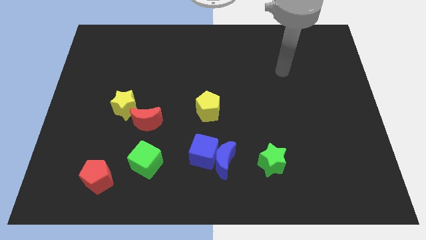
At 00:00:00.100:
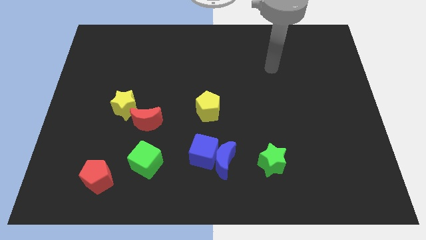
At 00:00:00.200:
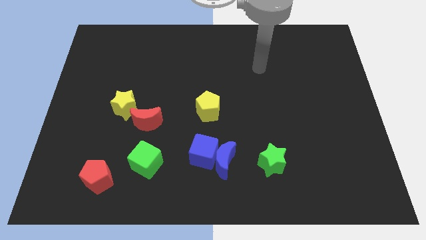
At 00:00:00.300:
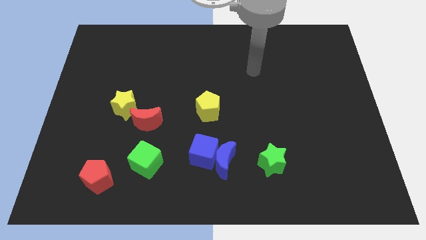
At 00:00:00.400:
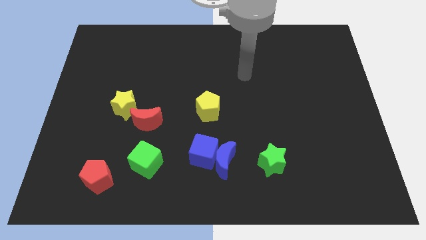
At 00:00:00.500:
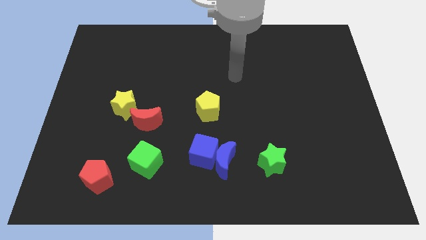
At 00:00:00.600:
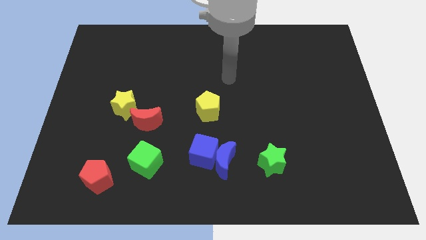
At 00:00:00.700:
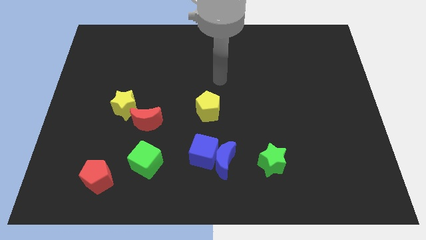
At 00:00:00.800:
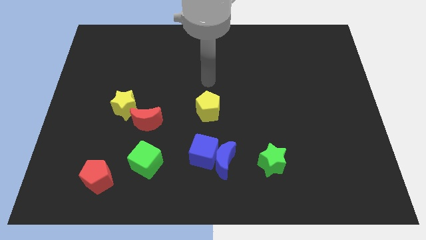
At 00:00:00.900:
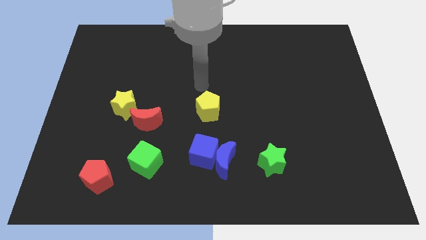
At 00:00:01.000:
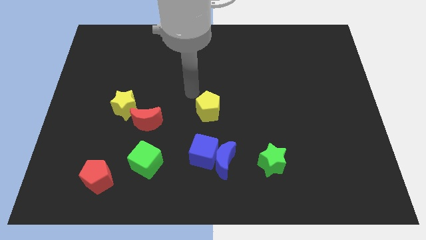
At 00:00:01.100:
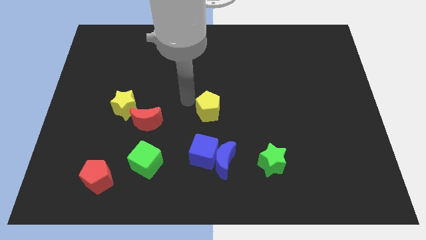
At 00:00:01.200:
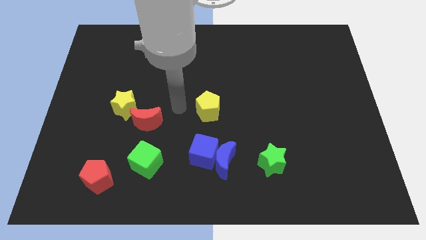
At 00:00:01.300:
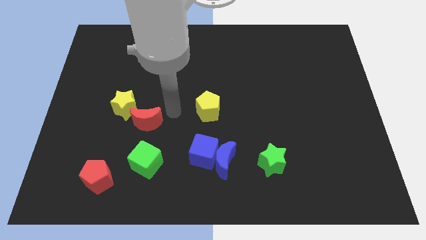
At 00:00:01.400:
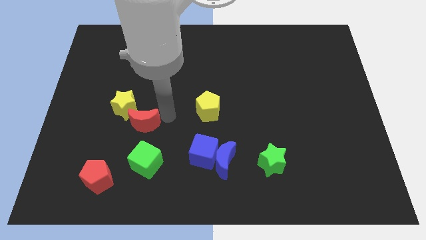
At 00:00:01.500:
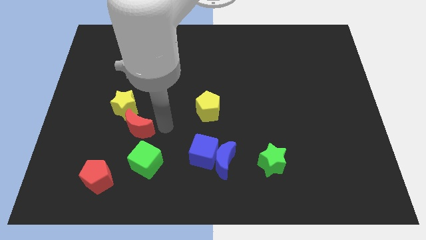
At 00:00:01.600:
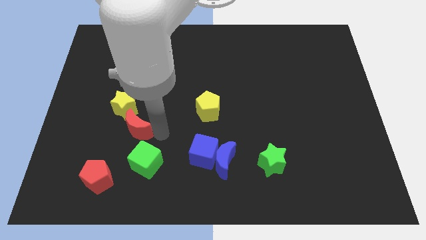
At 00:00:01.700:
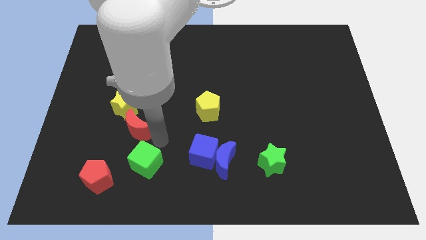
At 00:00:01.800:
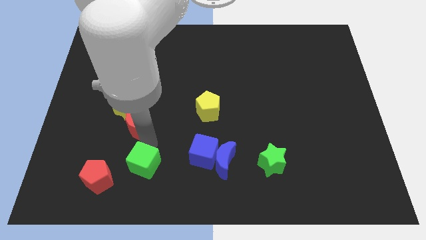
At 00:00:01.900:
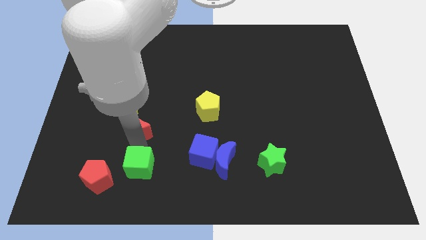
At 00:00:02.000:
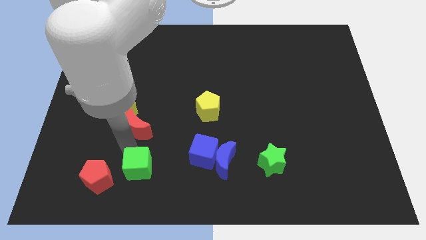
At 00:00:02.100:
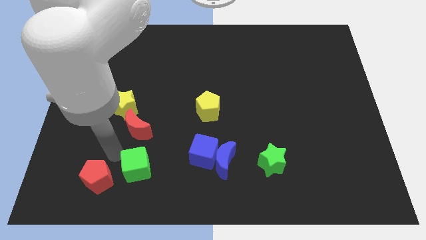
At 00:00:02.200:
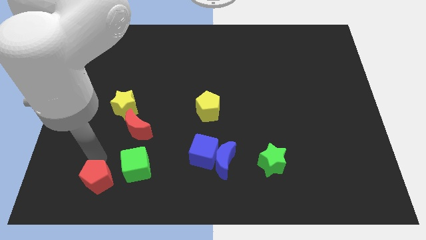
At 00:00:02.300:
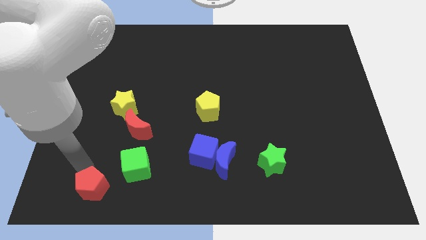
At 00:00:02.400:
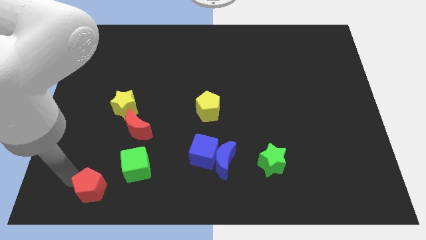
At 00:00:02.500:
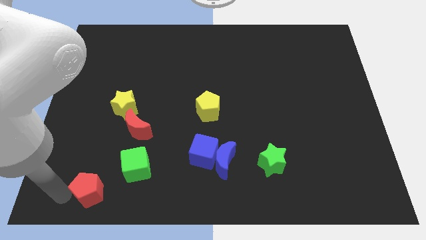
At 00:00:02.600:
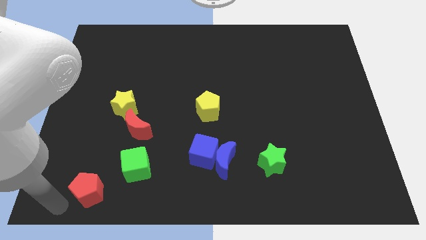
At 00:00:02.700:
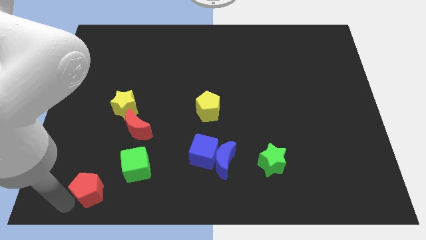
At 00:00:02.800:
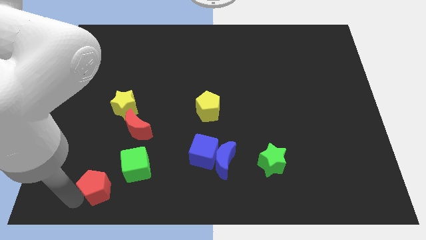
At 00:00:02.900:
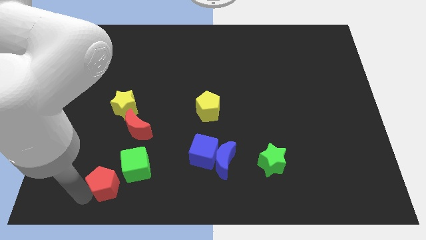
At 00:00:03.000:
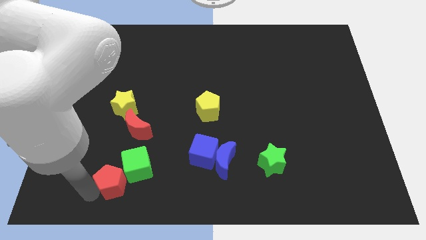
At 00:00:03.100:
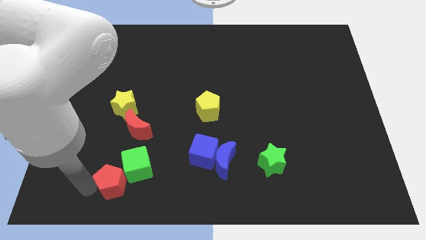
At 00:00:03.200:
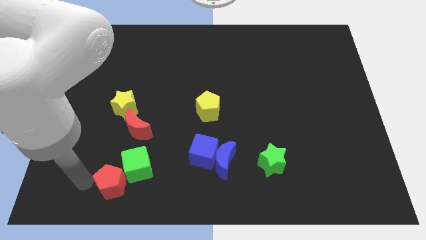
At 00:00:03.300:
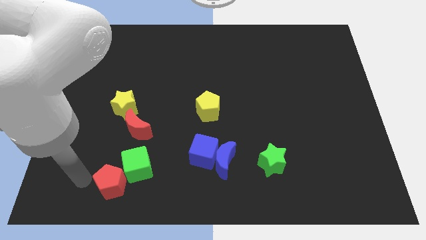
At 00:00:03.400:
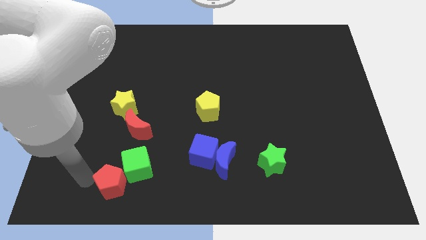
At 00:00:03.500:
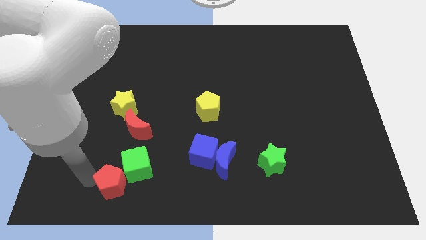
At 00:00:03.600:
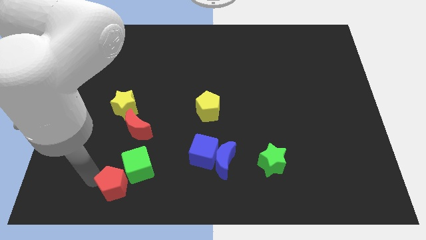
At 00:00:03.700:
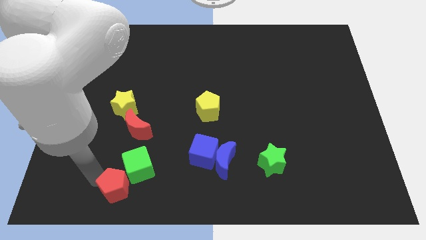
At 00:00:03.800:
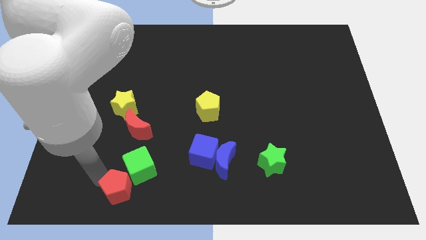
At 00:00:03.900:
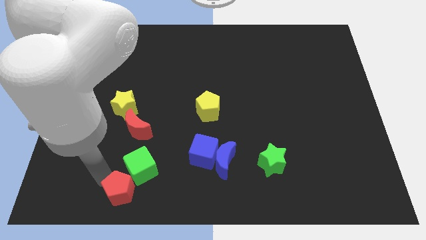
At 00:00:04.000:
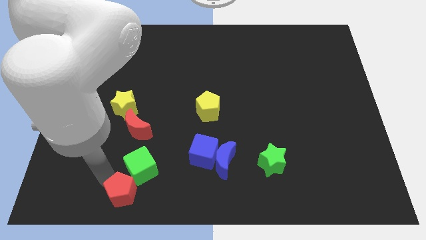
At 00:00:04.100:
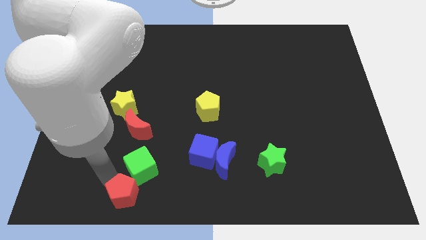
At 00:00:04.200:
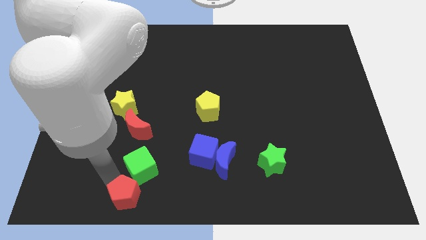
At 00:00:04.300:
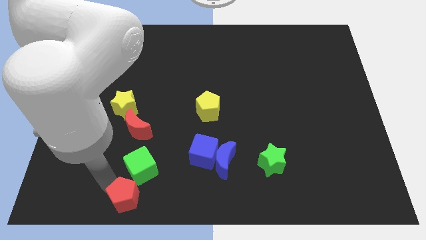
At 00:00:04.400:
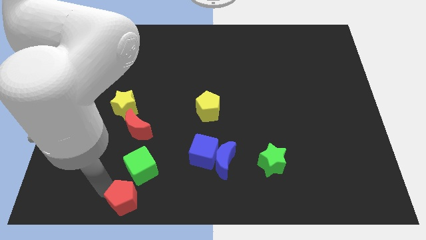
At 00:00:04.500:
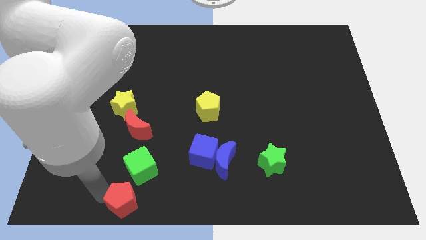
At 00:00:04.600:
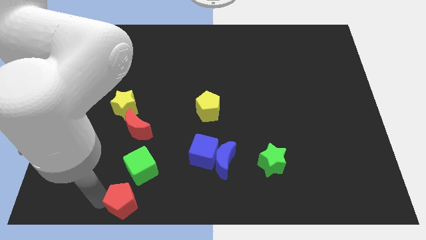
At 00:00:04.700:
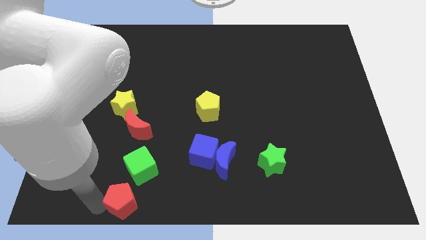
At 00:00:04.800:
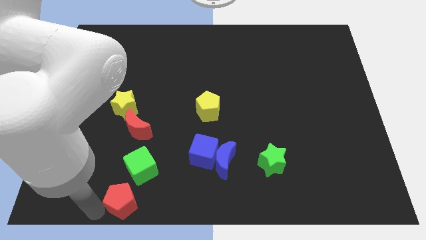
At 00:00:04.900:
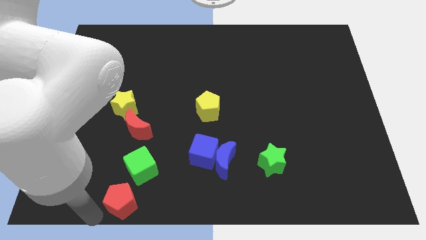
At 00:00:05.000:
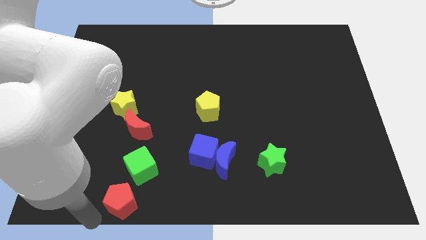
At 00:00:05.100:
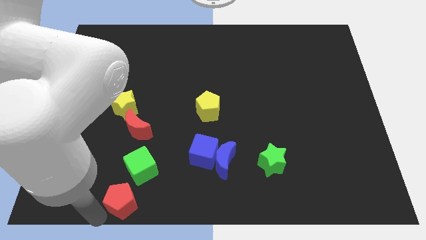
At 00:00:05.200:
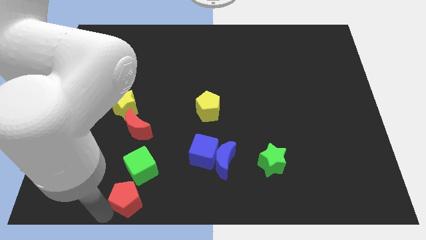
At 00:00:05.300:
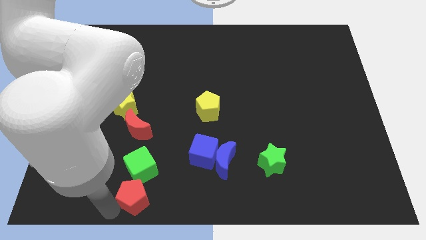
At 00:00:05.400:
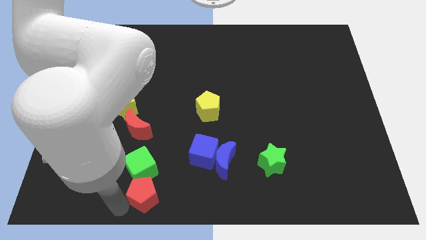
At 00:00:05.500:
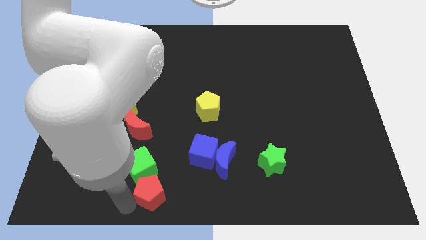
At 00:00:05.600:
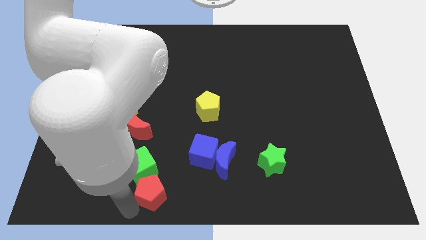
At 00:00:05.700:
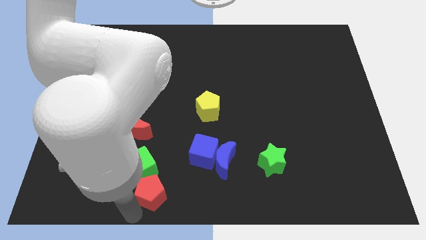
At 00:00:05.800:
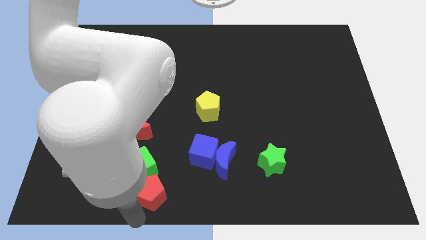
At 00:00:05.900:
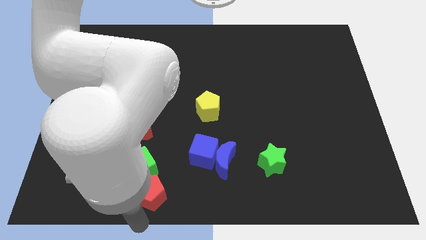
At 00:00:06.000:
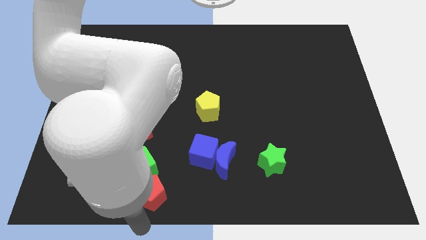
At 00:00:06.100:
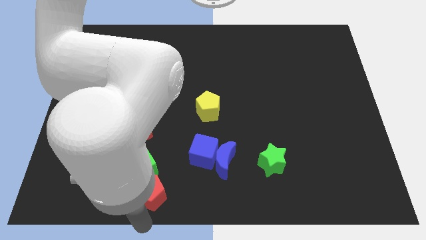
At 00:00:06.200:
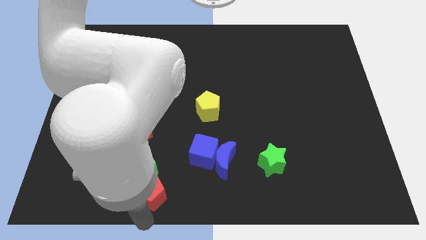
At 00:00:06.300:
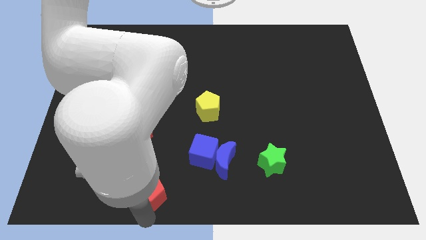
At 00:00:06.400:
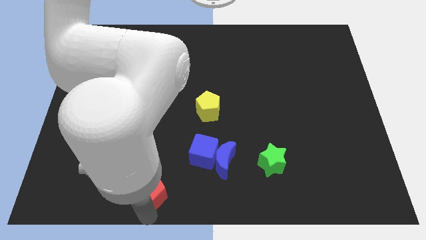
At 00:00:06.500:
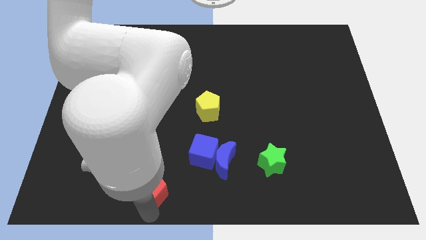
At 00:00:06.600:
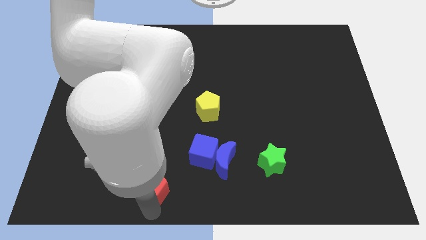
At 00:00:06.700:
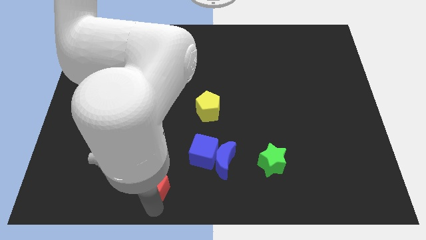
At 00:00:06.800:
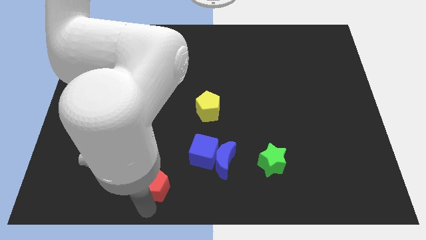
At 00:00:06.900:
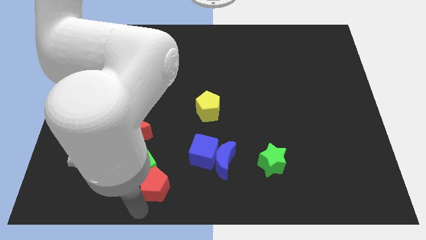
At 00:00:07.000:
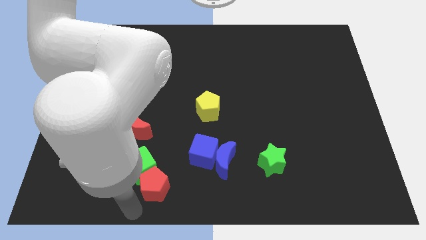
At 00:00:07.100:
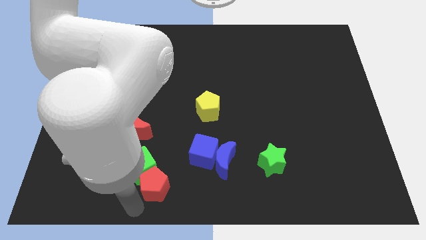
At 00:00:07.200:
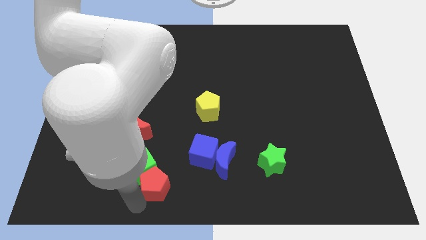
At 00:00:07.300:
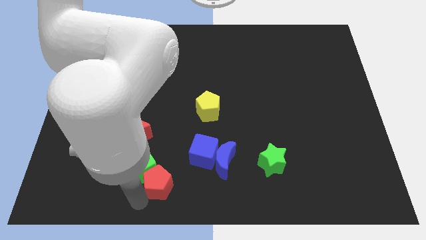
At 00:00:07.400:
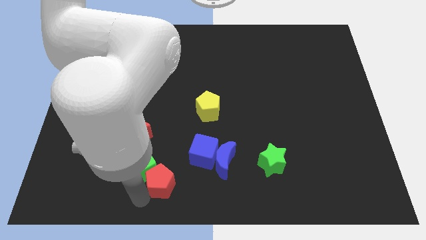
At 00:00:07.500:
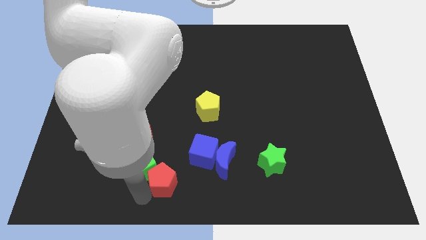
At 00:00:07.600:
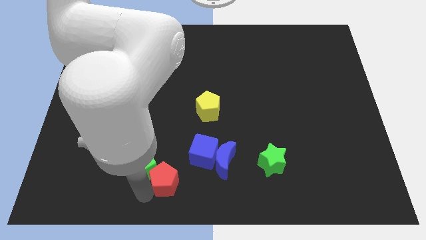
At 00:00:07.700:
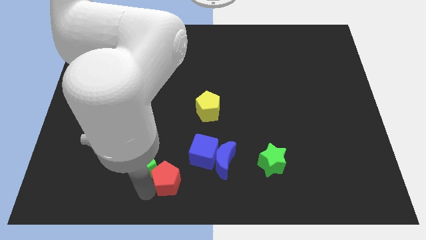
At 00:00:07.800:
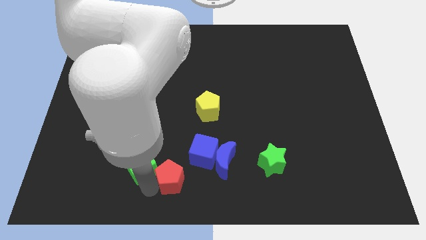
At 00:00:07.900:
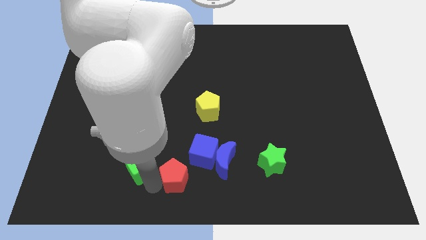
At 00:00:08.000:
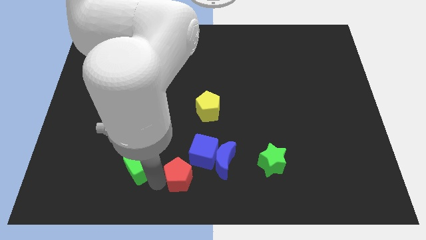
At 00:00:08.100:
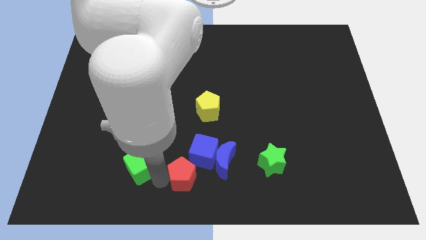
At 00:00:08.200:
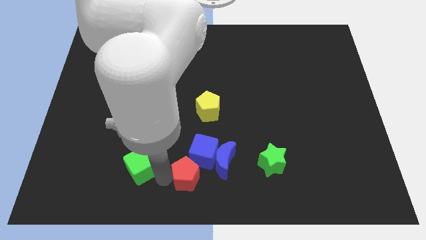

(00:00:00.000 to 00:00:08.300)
move the red pentagon next to the blue cube
